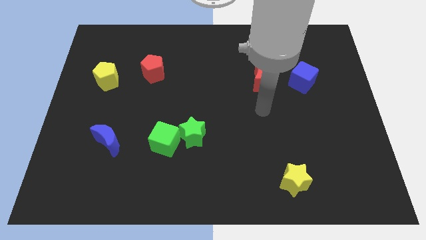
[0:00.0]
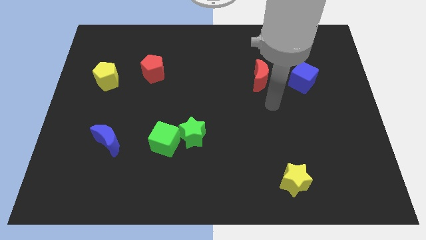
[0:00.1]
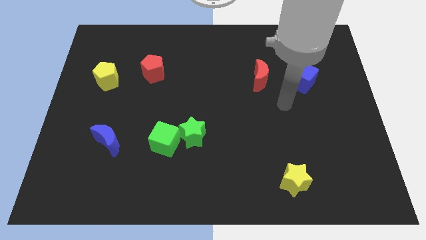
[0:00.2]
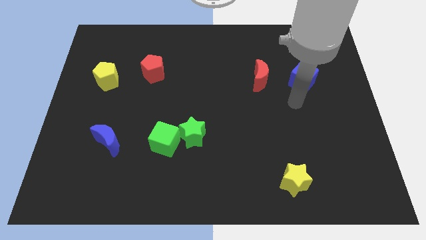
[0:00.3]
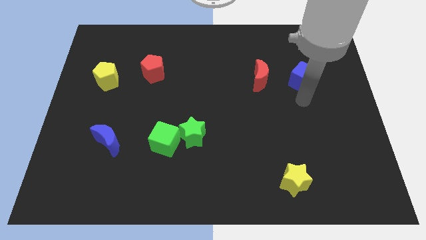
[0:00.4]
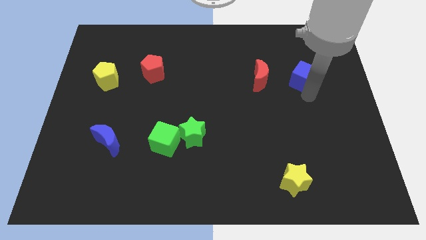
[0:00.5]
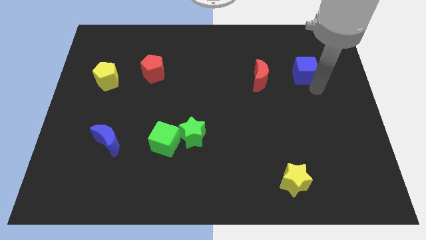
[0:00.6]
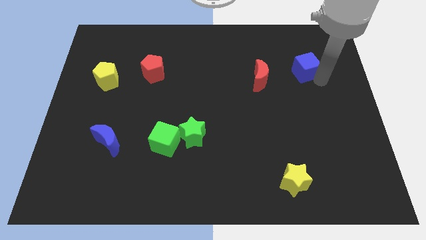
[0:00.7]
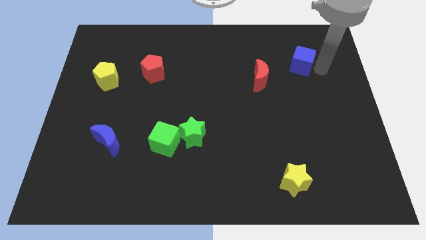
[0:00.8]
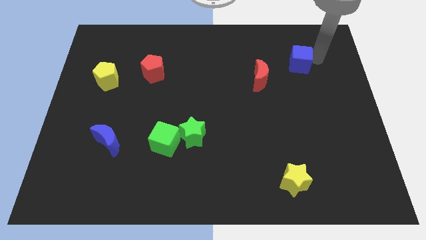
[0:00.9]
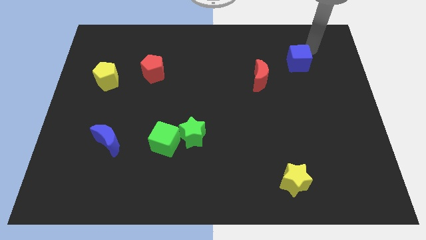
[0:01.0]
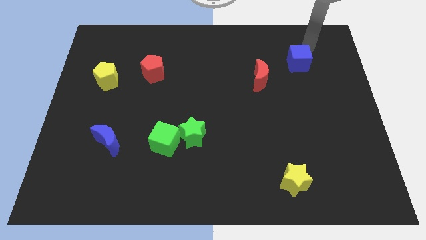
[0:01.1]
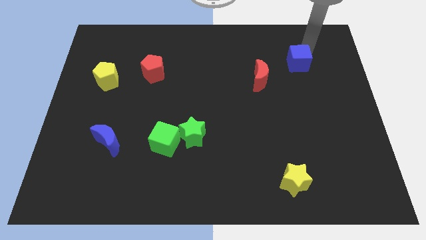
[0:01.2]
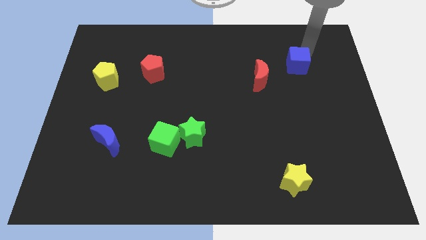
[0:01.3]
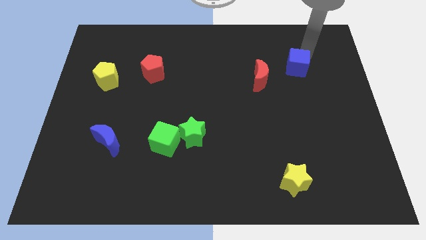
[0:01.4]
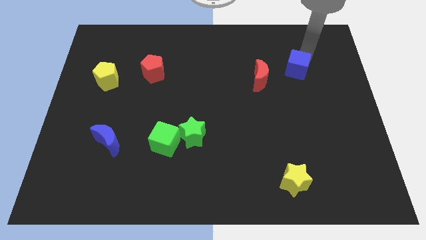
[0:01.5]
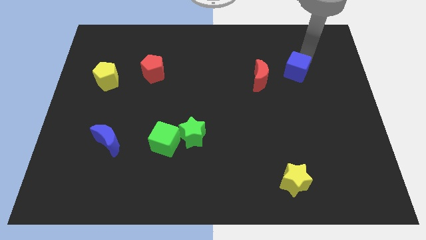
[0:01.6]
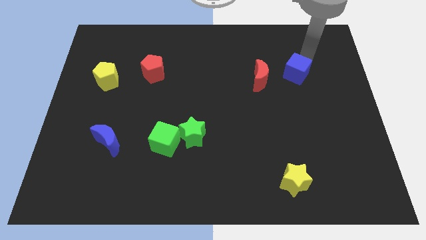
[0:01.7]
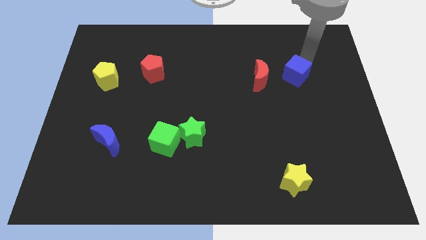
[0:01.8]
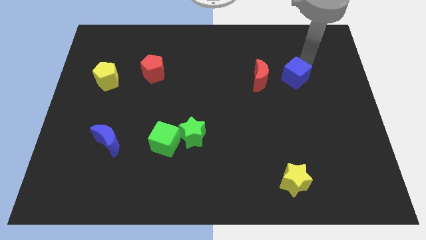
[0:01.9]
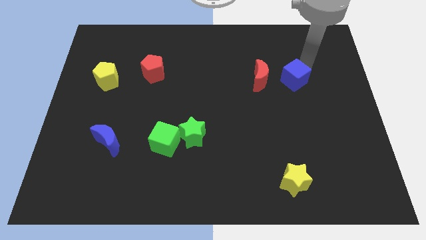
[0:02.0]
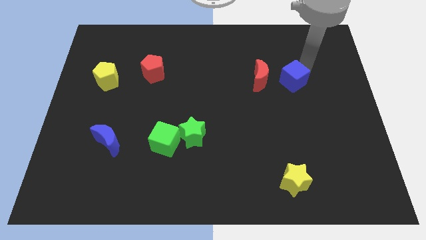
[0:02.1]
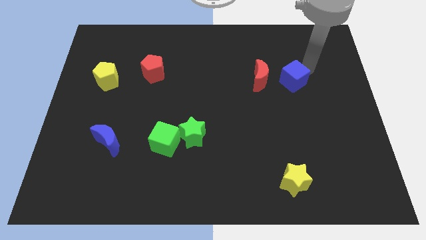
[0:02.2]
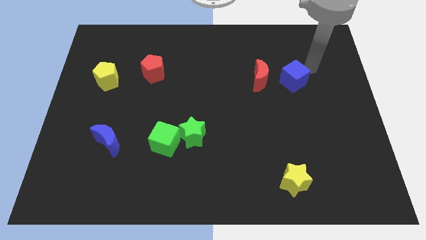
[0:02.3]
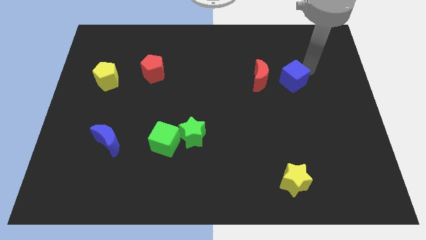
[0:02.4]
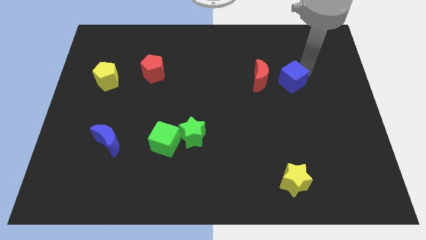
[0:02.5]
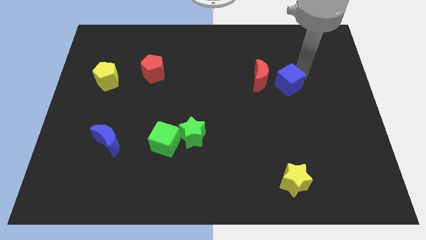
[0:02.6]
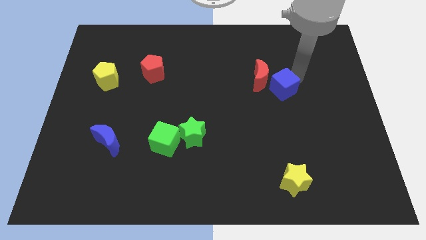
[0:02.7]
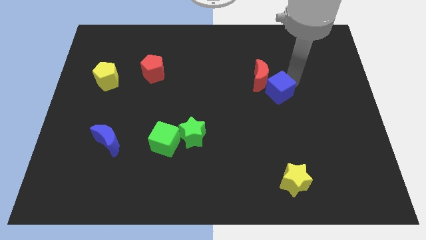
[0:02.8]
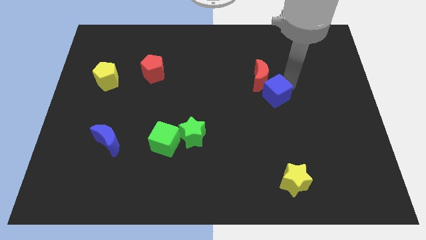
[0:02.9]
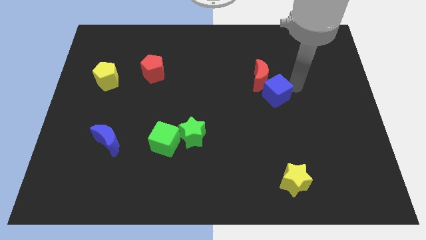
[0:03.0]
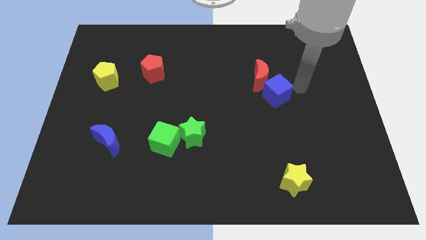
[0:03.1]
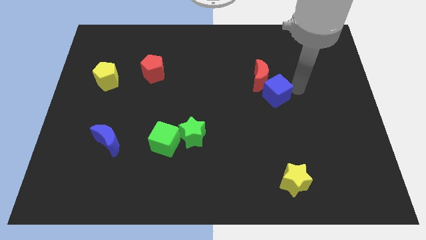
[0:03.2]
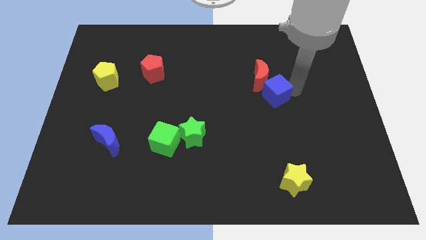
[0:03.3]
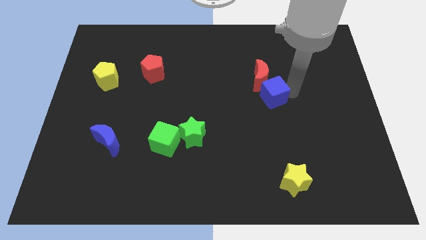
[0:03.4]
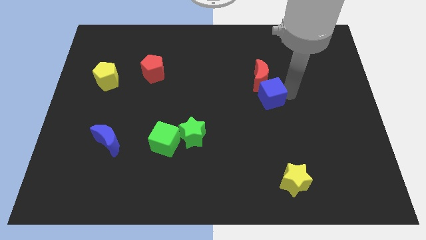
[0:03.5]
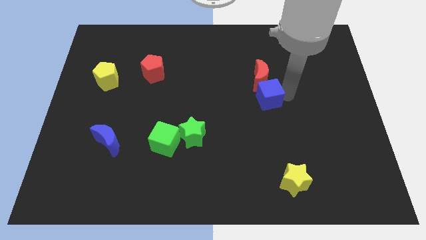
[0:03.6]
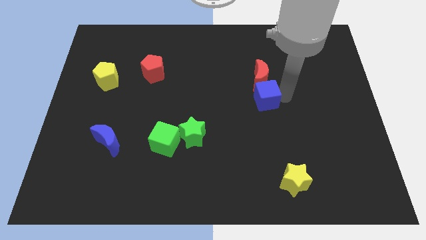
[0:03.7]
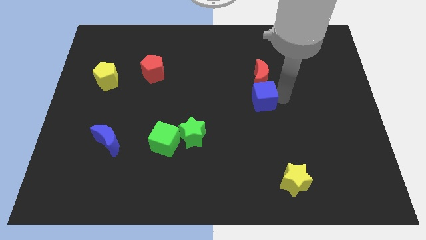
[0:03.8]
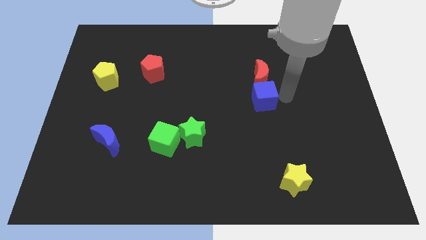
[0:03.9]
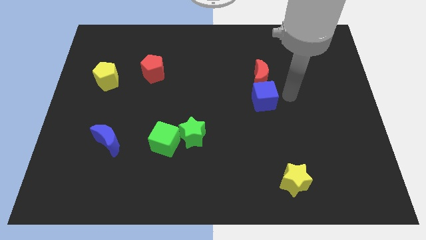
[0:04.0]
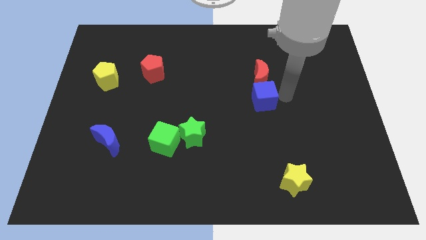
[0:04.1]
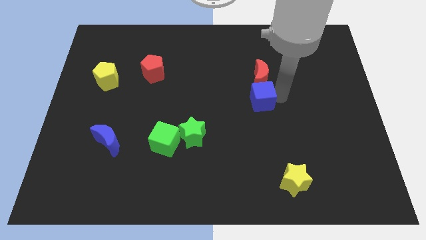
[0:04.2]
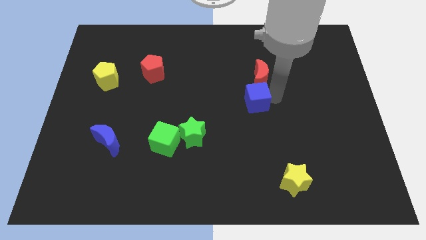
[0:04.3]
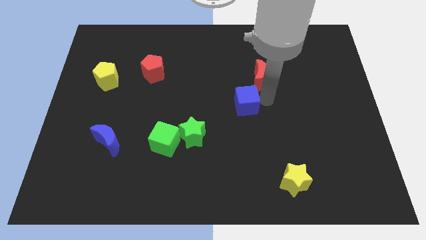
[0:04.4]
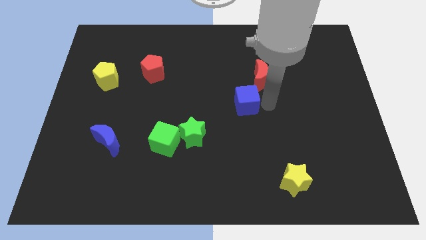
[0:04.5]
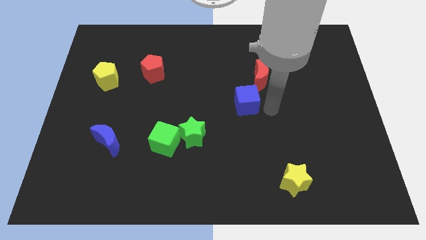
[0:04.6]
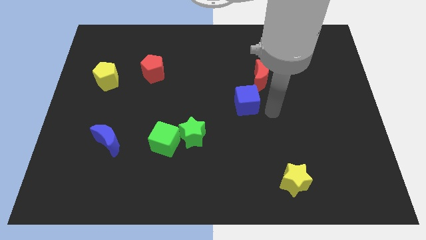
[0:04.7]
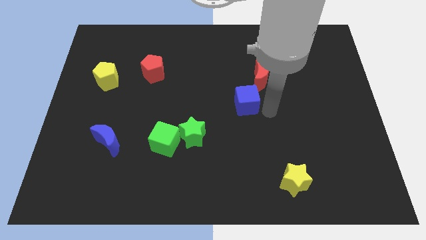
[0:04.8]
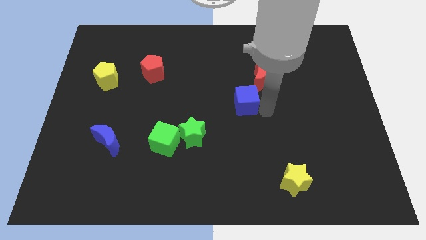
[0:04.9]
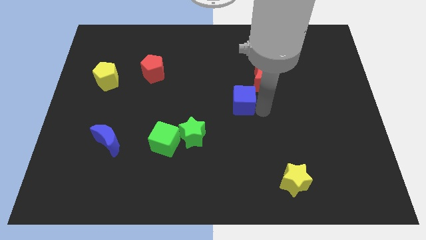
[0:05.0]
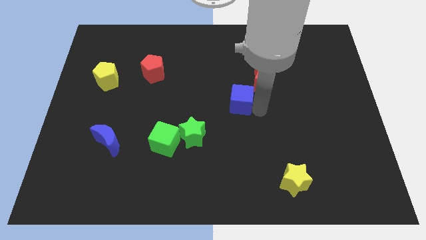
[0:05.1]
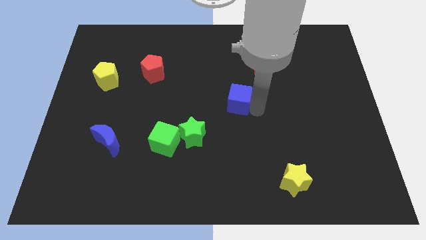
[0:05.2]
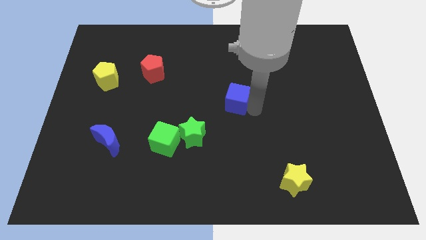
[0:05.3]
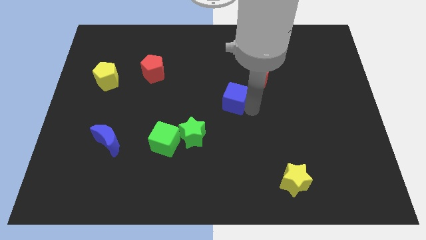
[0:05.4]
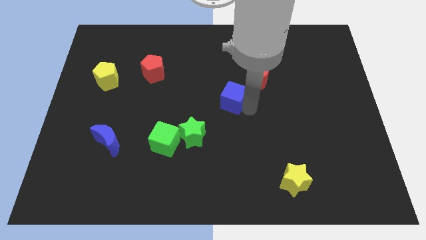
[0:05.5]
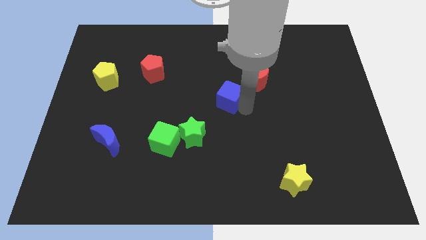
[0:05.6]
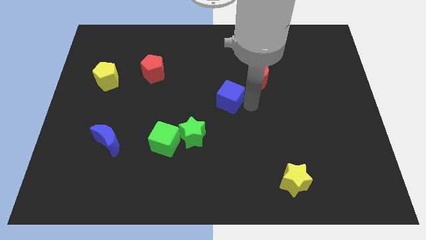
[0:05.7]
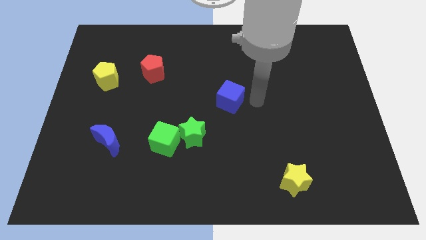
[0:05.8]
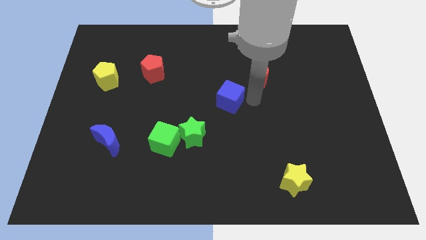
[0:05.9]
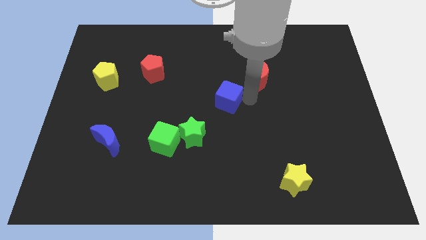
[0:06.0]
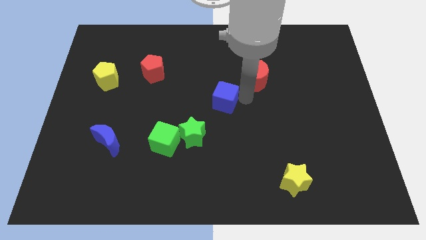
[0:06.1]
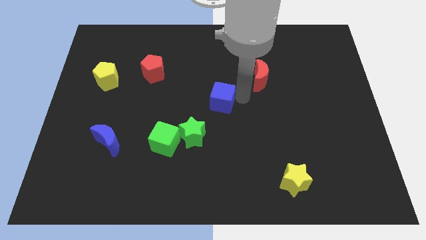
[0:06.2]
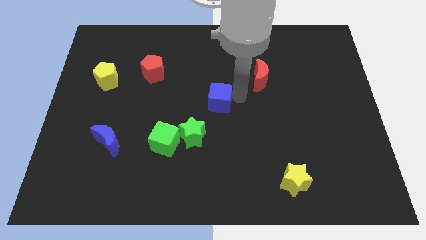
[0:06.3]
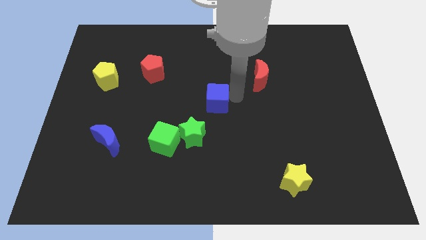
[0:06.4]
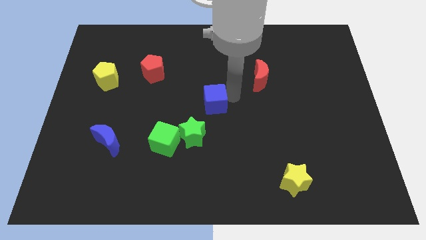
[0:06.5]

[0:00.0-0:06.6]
move the blue cube above the green star
